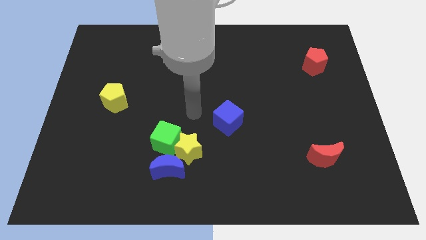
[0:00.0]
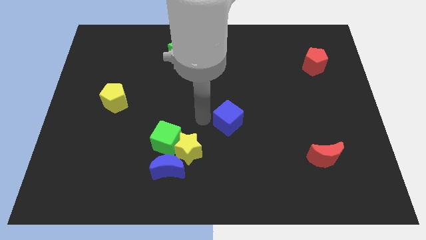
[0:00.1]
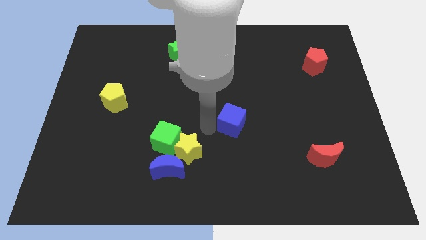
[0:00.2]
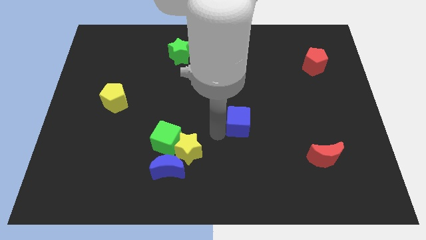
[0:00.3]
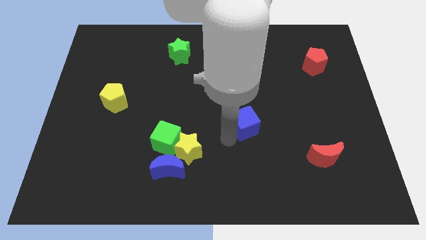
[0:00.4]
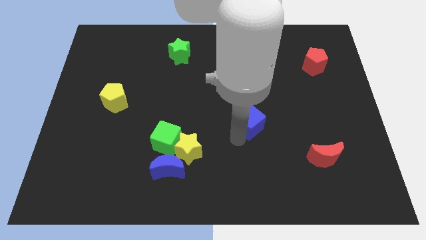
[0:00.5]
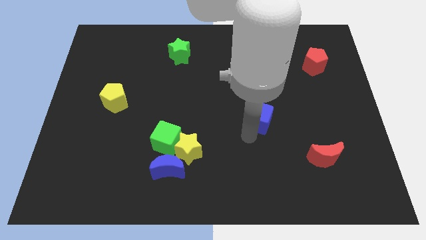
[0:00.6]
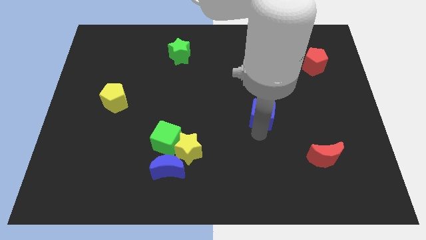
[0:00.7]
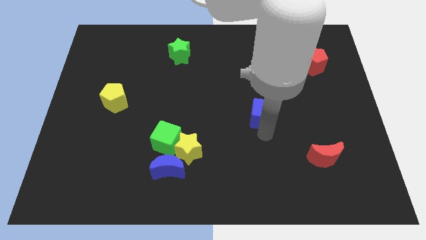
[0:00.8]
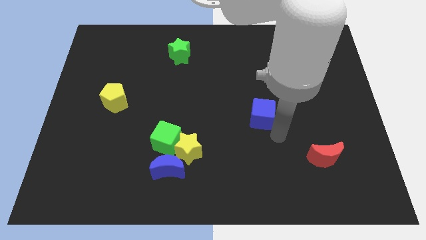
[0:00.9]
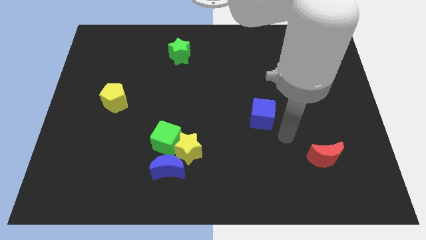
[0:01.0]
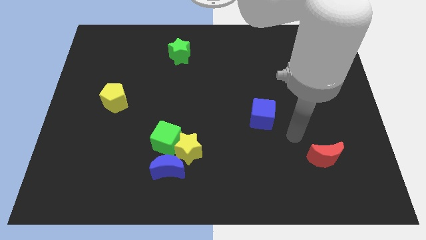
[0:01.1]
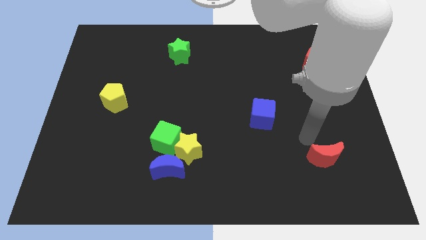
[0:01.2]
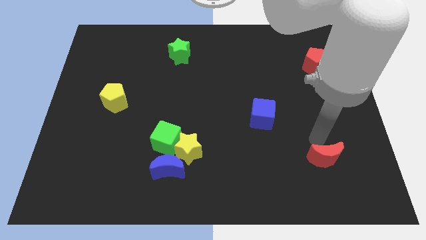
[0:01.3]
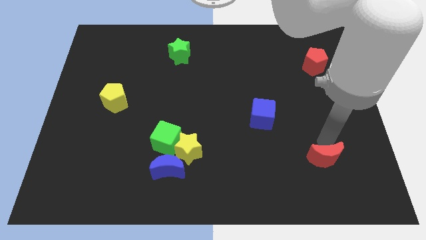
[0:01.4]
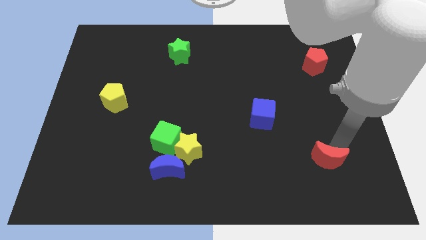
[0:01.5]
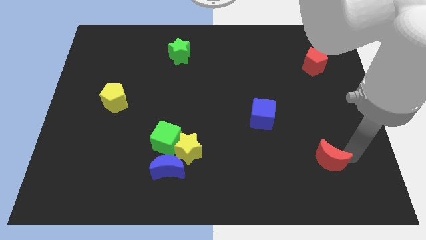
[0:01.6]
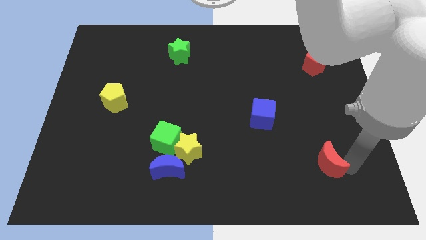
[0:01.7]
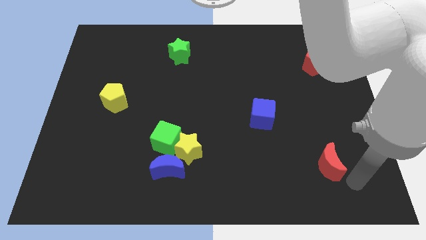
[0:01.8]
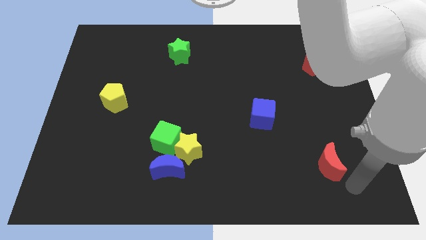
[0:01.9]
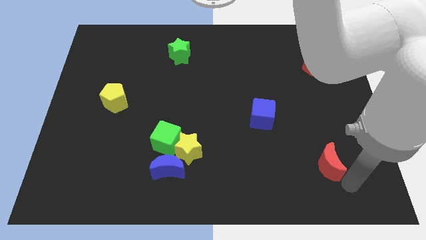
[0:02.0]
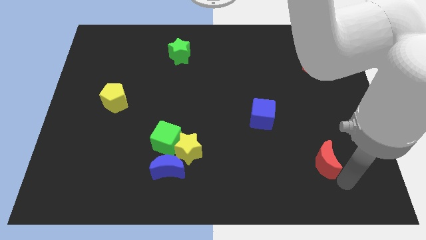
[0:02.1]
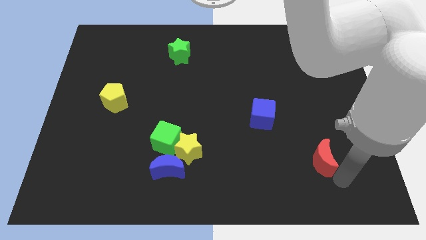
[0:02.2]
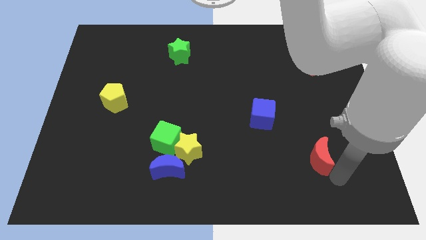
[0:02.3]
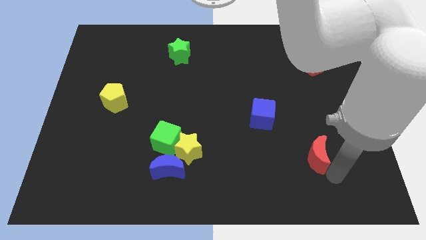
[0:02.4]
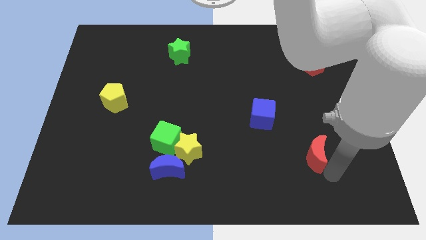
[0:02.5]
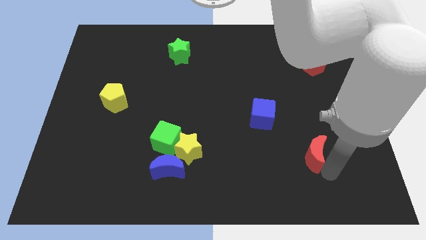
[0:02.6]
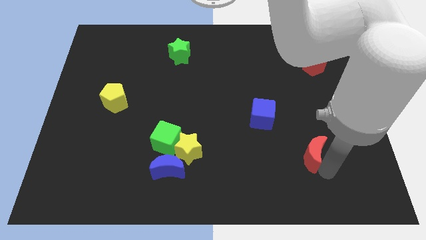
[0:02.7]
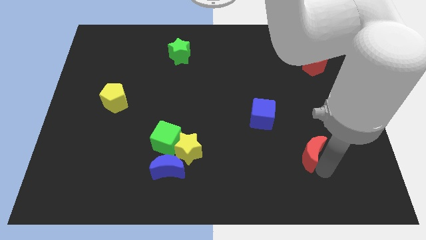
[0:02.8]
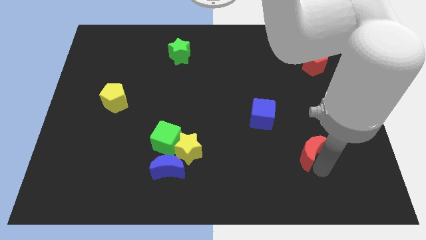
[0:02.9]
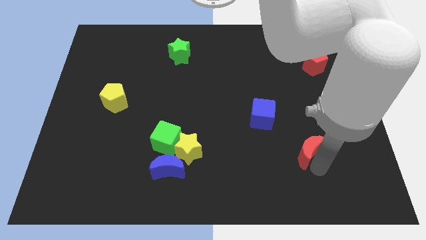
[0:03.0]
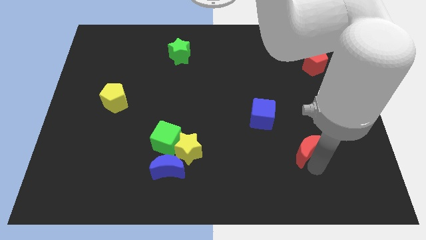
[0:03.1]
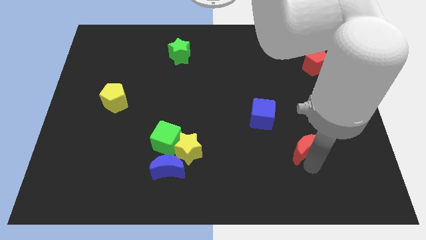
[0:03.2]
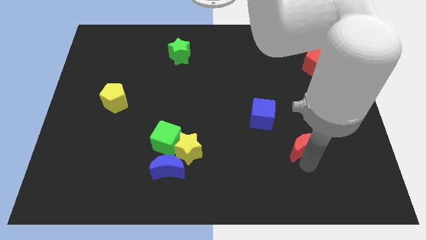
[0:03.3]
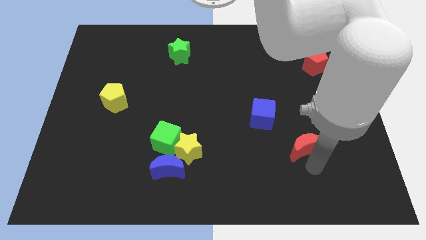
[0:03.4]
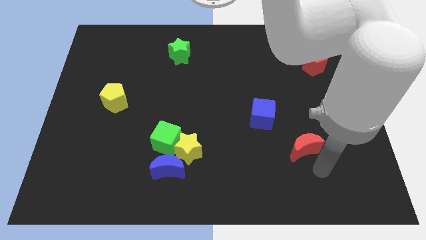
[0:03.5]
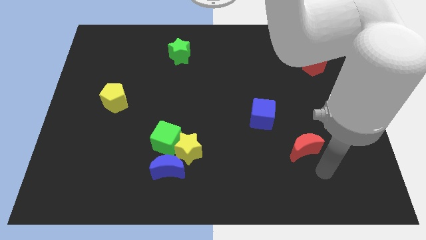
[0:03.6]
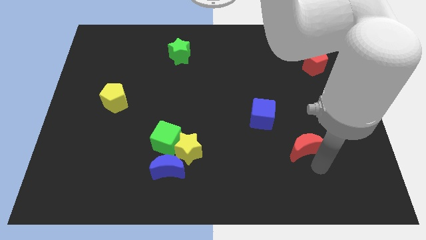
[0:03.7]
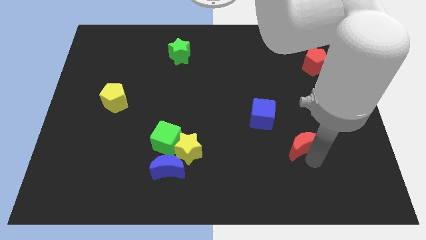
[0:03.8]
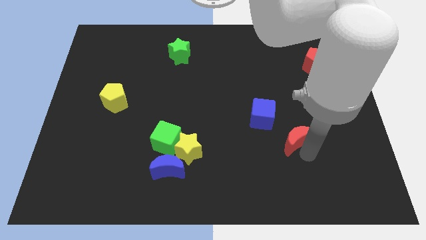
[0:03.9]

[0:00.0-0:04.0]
push the red moon a little up and left

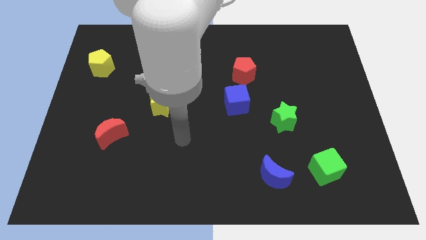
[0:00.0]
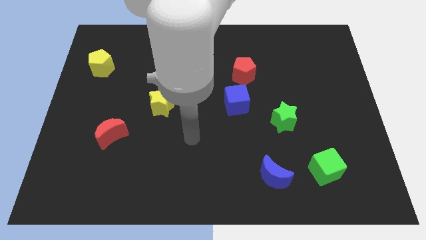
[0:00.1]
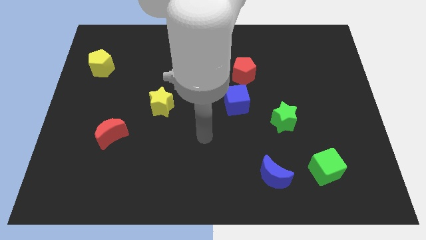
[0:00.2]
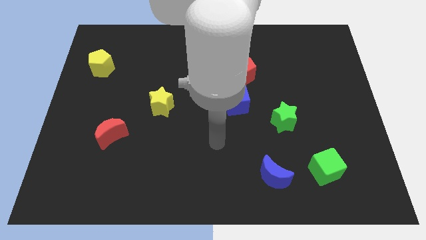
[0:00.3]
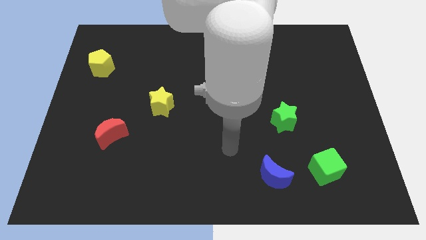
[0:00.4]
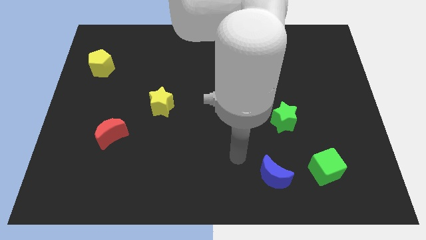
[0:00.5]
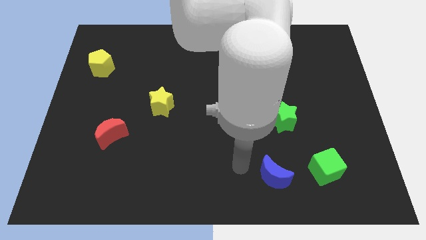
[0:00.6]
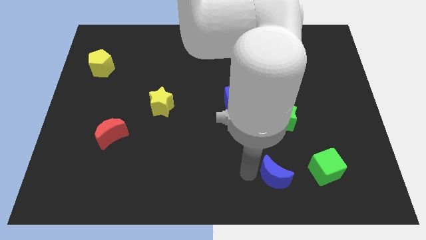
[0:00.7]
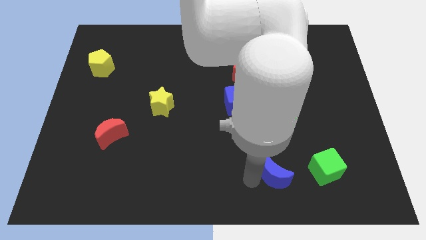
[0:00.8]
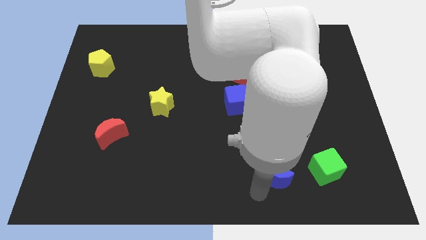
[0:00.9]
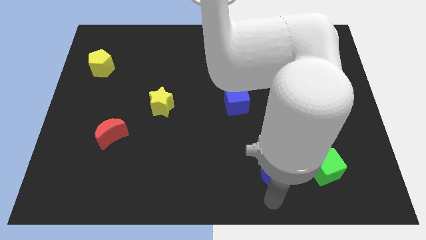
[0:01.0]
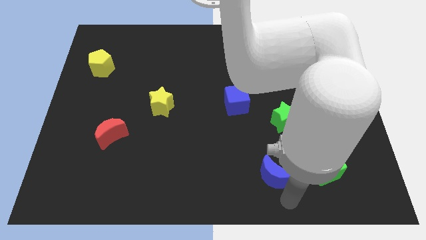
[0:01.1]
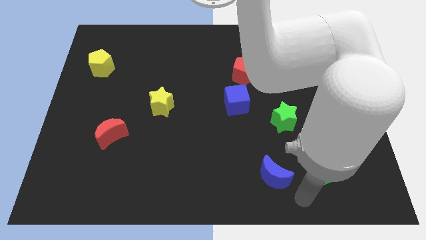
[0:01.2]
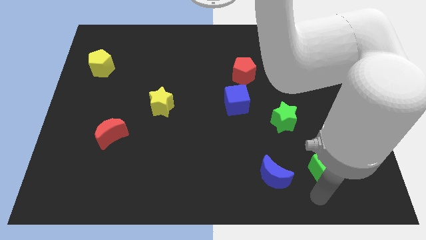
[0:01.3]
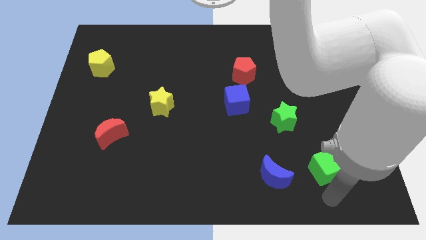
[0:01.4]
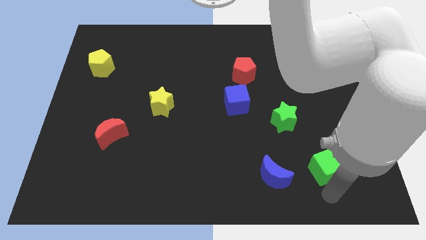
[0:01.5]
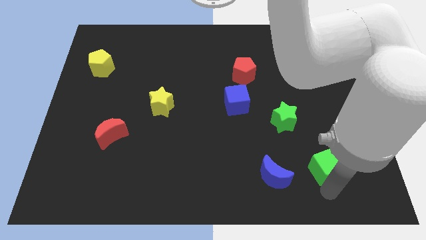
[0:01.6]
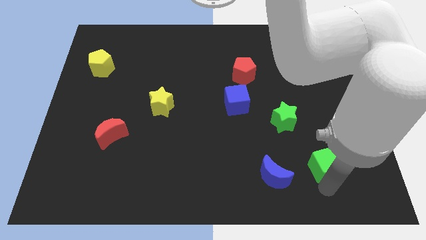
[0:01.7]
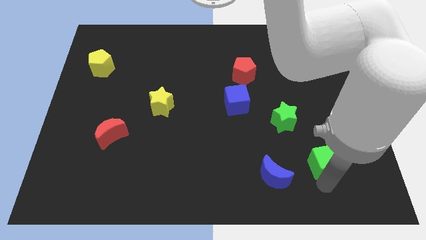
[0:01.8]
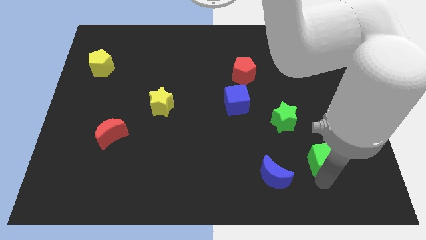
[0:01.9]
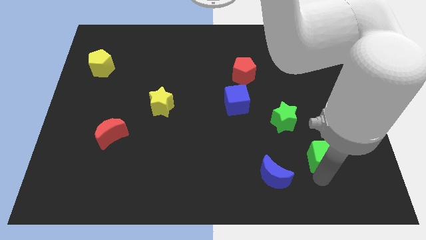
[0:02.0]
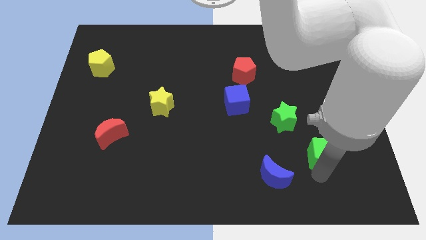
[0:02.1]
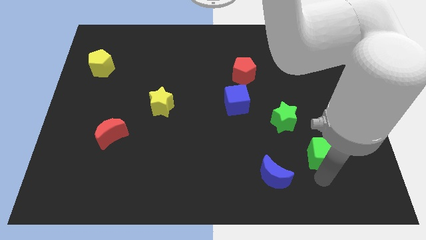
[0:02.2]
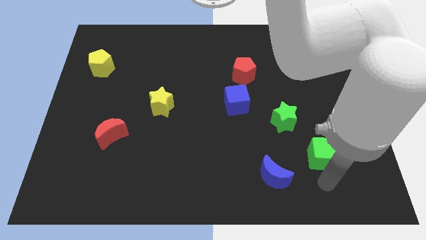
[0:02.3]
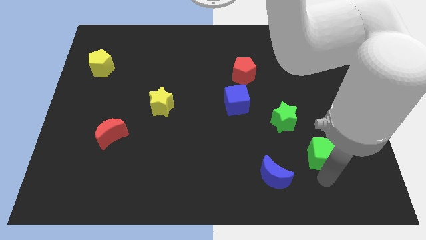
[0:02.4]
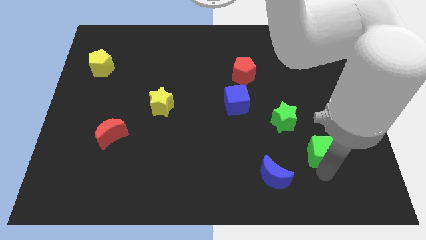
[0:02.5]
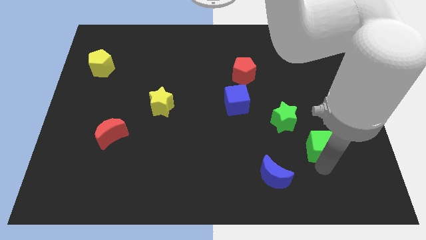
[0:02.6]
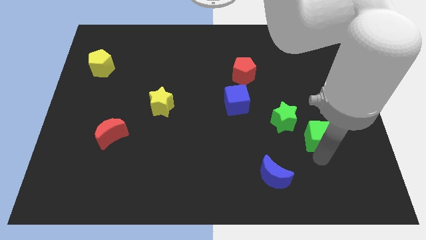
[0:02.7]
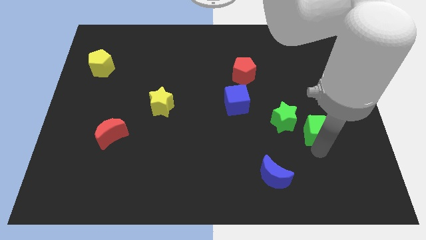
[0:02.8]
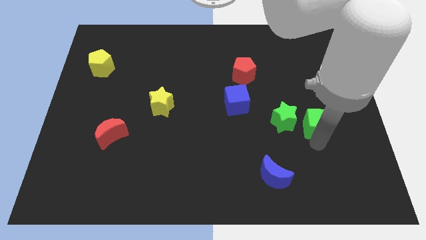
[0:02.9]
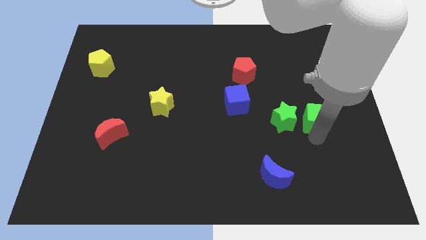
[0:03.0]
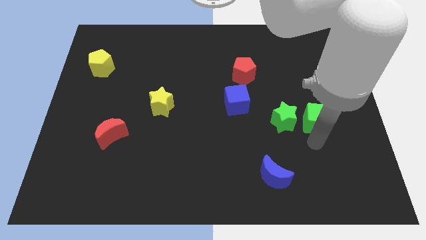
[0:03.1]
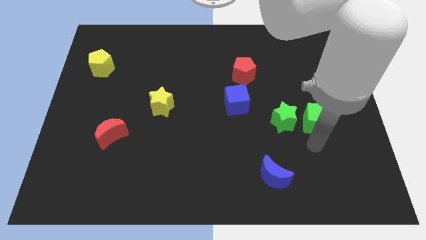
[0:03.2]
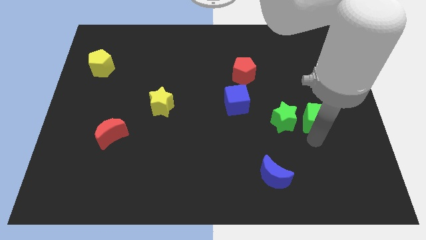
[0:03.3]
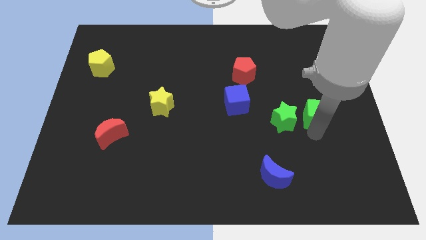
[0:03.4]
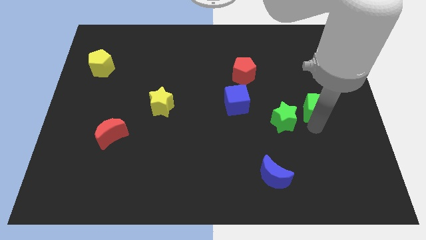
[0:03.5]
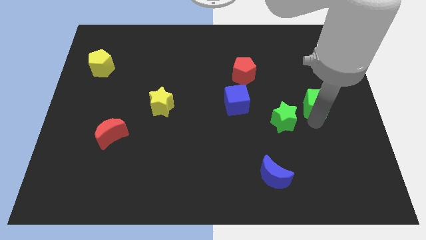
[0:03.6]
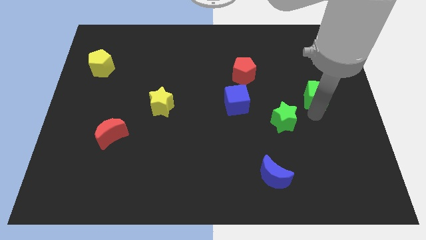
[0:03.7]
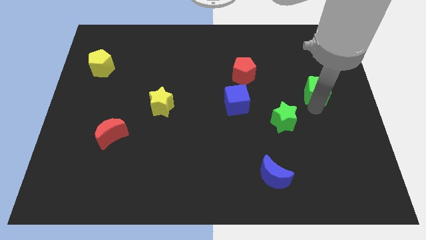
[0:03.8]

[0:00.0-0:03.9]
push the green cube upwards

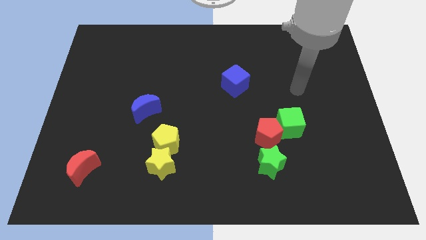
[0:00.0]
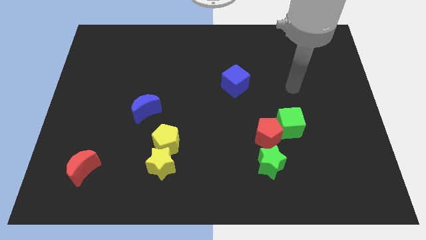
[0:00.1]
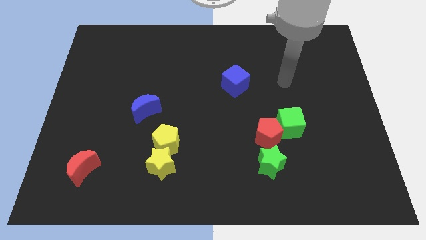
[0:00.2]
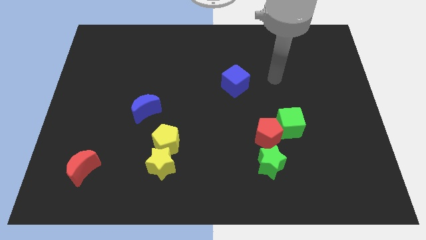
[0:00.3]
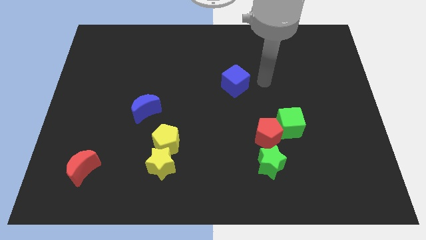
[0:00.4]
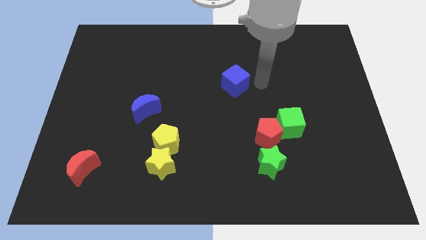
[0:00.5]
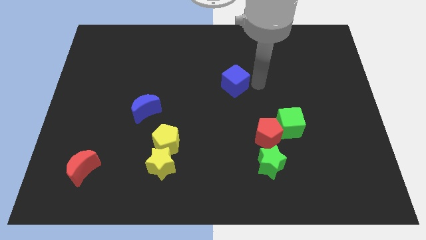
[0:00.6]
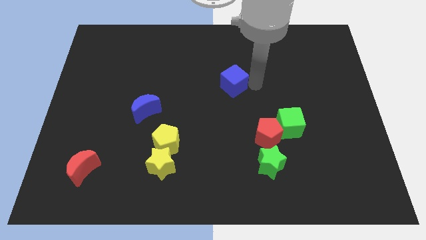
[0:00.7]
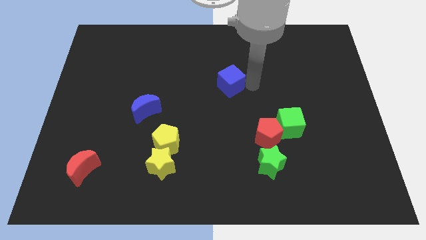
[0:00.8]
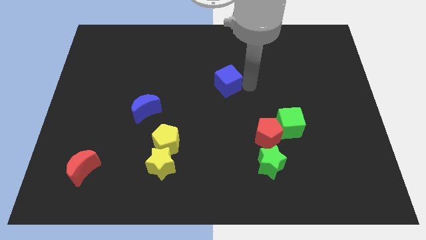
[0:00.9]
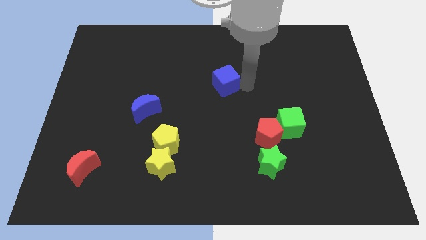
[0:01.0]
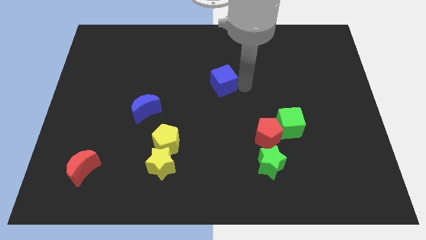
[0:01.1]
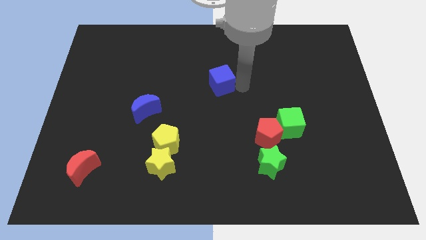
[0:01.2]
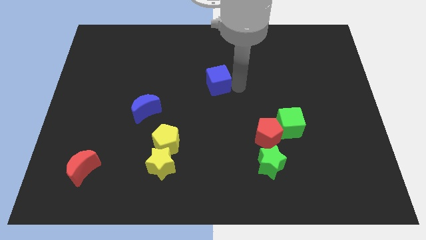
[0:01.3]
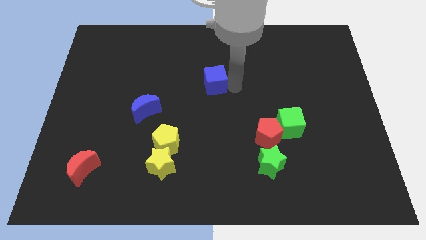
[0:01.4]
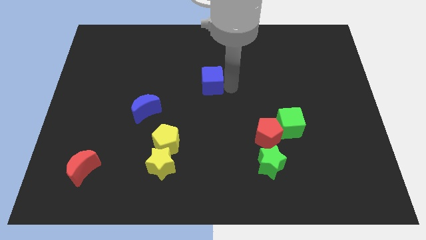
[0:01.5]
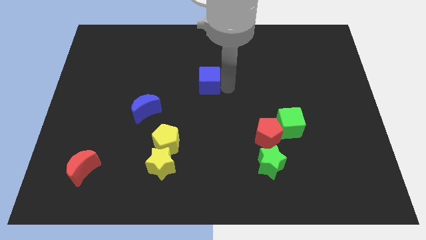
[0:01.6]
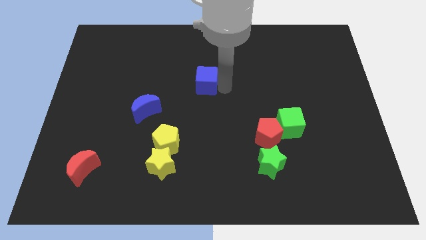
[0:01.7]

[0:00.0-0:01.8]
slightly move the blue cube left
